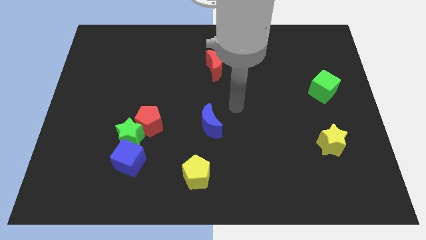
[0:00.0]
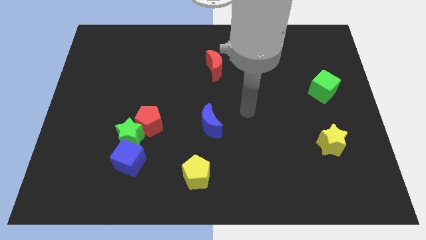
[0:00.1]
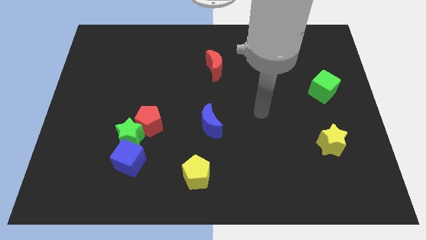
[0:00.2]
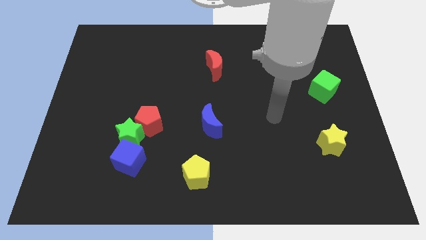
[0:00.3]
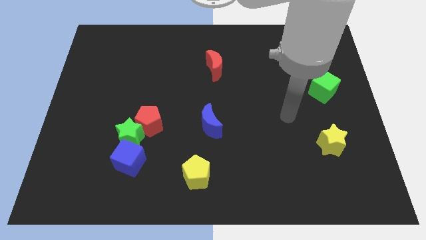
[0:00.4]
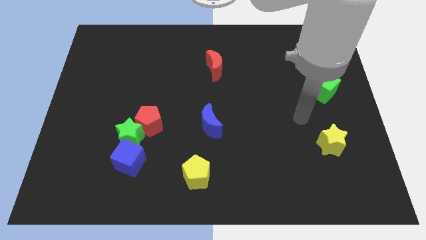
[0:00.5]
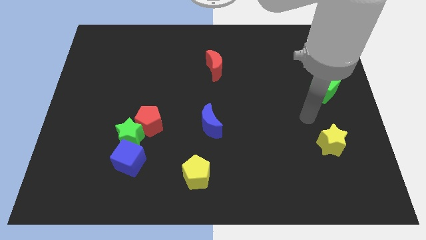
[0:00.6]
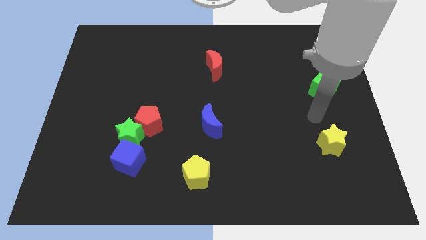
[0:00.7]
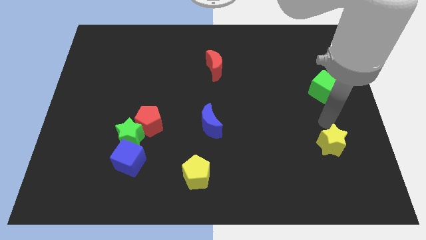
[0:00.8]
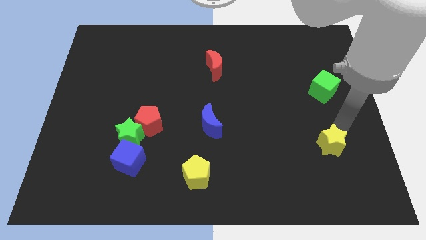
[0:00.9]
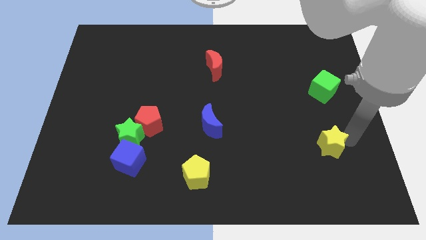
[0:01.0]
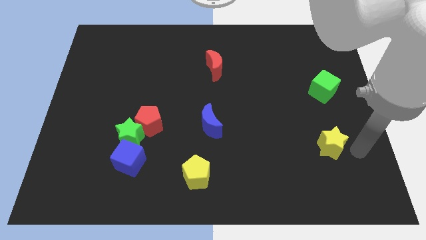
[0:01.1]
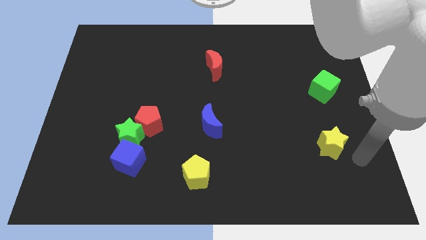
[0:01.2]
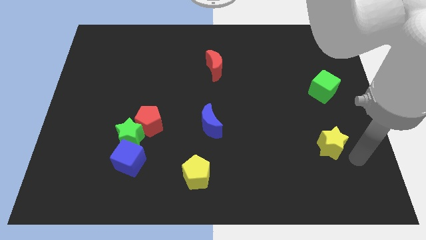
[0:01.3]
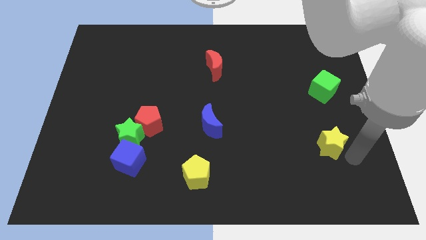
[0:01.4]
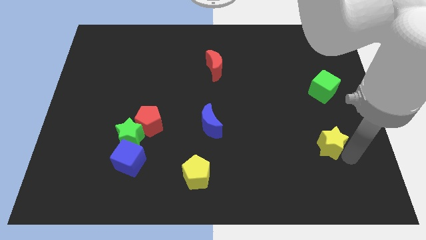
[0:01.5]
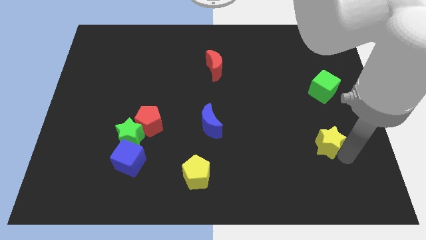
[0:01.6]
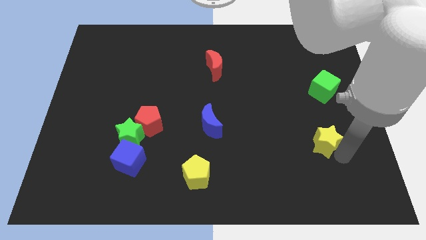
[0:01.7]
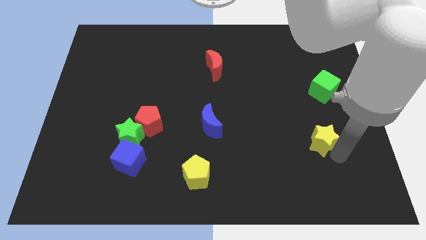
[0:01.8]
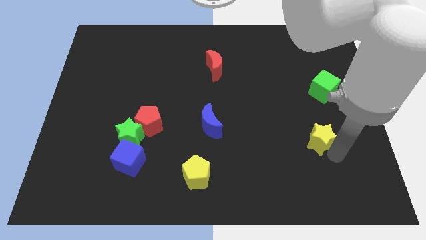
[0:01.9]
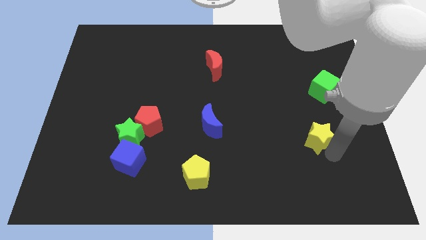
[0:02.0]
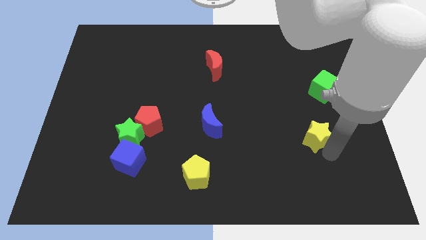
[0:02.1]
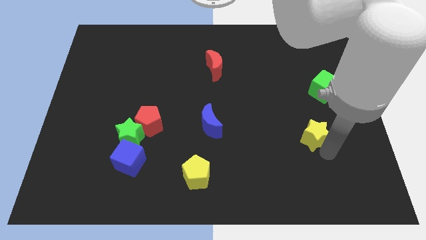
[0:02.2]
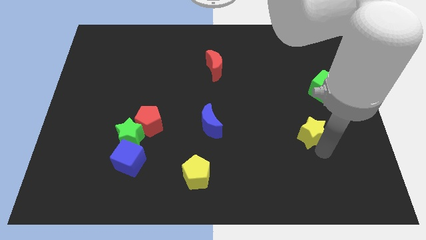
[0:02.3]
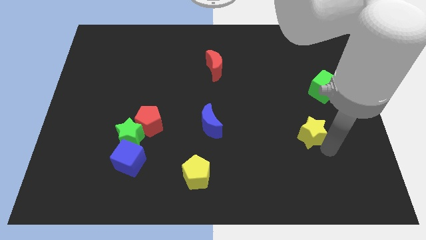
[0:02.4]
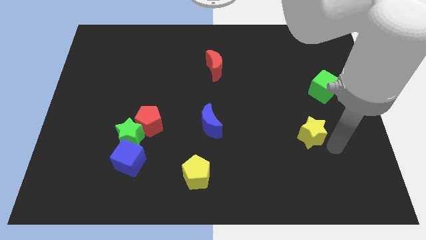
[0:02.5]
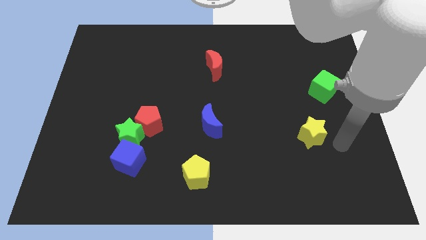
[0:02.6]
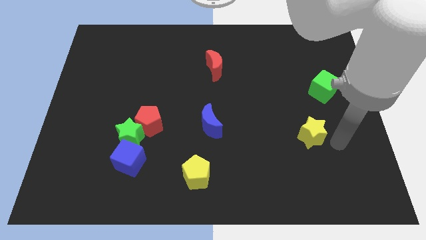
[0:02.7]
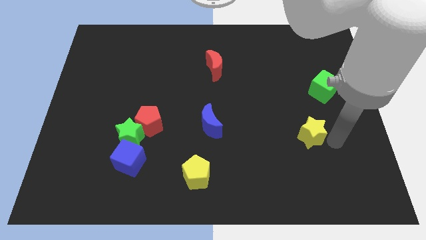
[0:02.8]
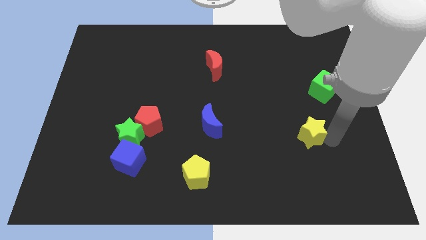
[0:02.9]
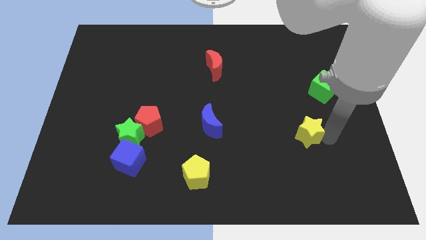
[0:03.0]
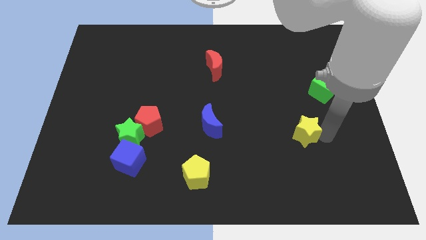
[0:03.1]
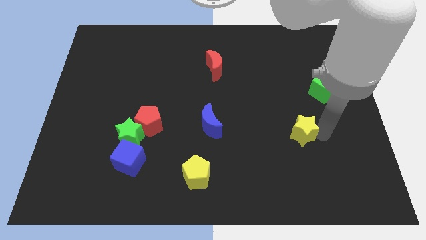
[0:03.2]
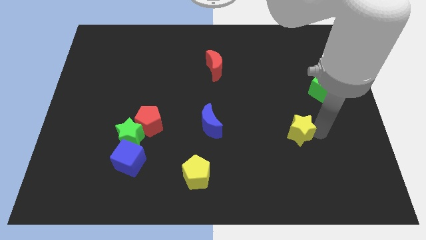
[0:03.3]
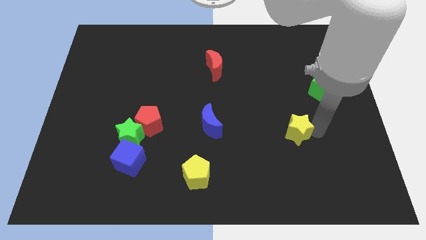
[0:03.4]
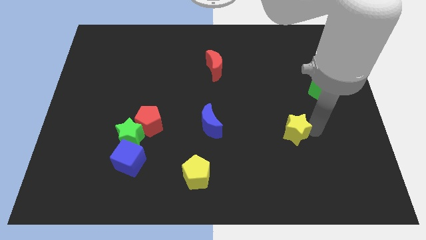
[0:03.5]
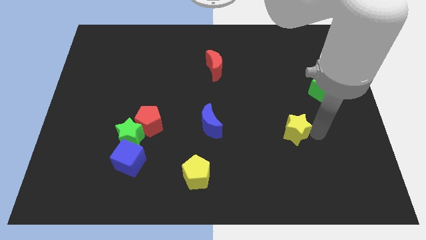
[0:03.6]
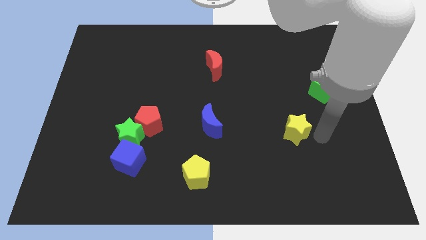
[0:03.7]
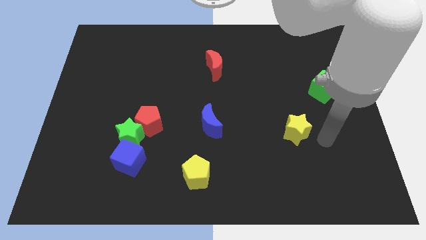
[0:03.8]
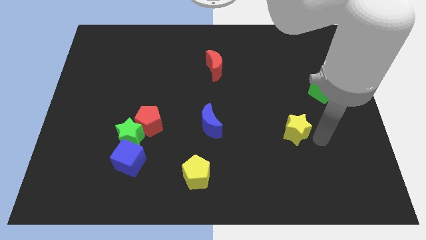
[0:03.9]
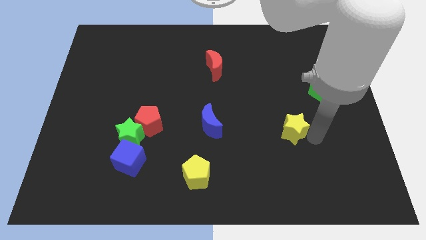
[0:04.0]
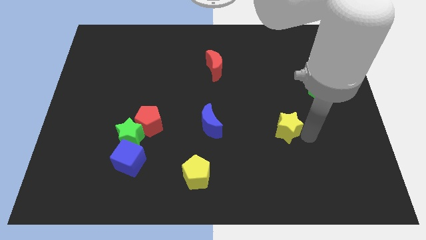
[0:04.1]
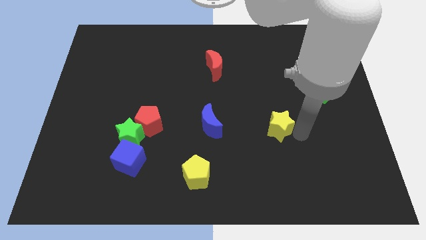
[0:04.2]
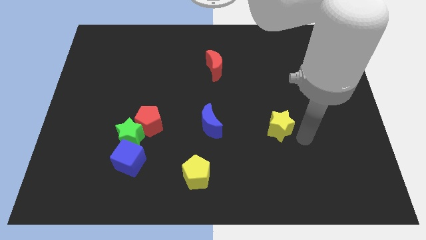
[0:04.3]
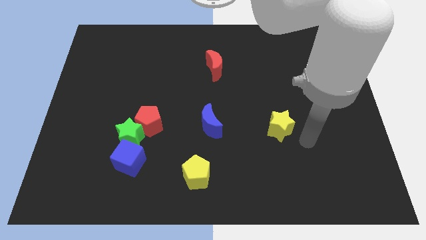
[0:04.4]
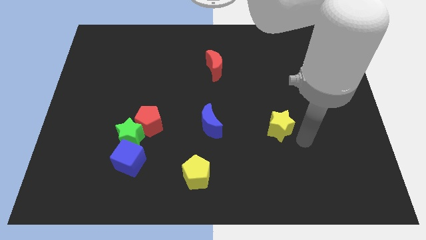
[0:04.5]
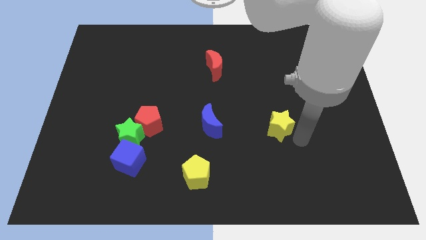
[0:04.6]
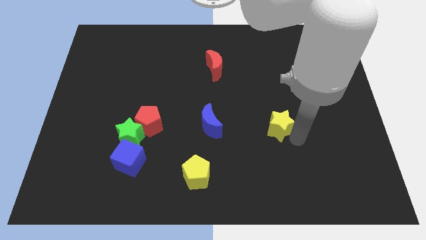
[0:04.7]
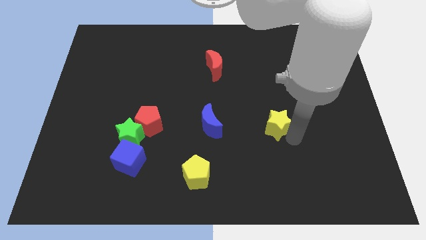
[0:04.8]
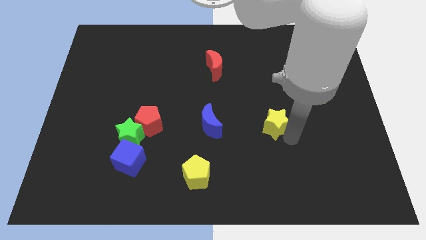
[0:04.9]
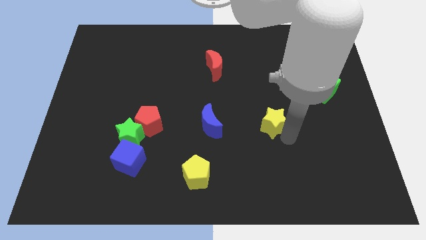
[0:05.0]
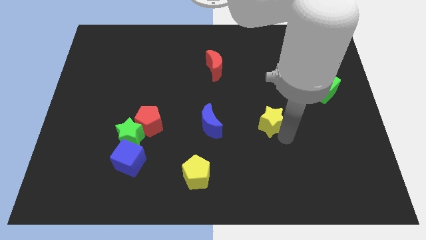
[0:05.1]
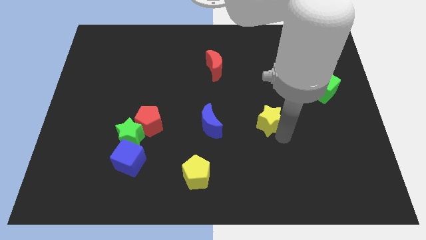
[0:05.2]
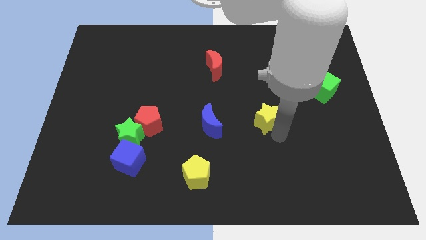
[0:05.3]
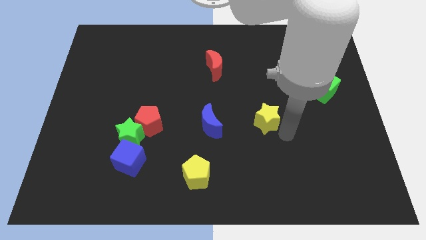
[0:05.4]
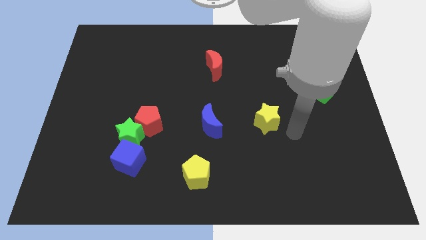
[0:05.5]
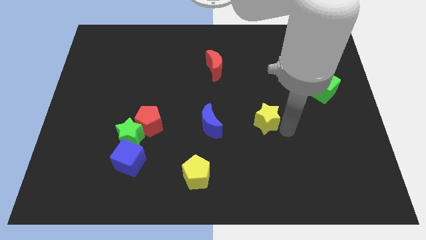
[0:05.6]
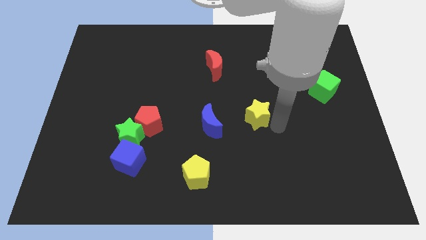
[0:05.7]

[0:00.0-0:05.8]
push the yellow star to the middle of the board

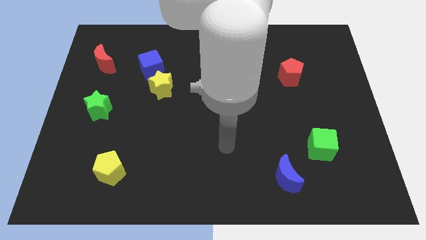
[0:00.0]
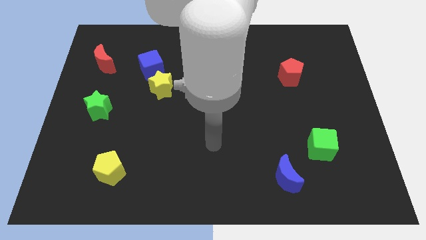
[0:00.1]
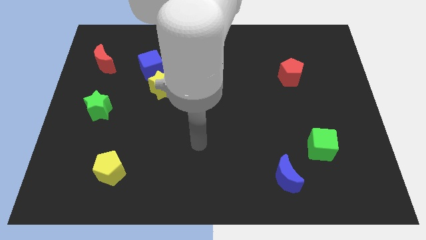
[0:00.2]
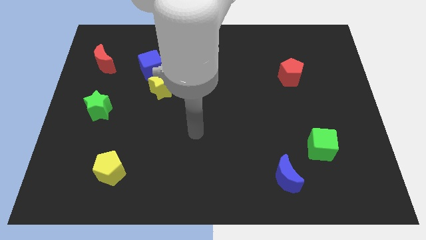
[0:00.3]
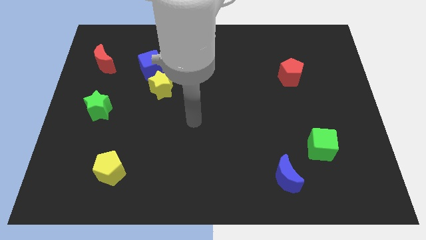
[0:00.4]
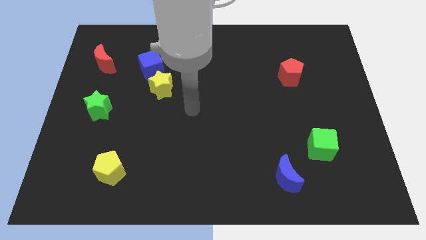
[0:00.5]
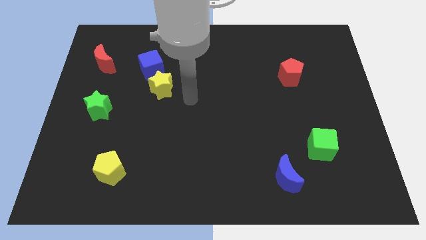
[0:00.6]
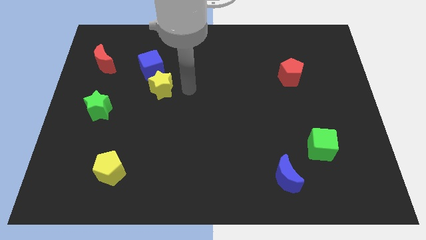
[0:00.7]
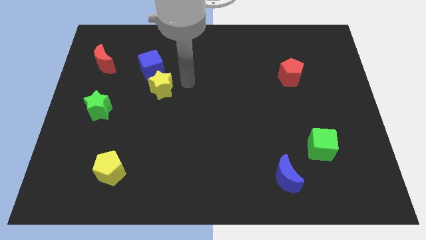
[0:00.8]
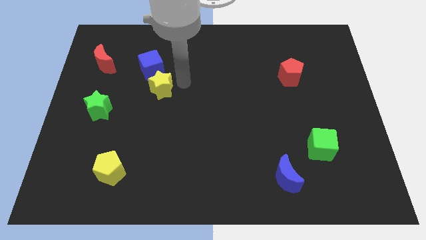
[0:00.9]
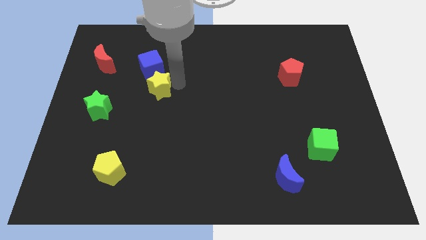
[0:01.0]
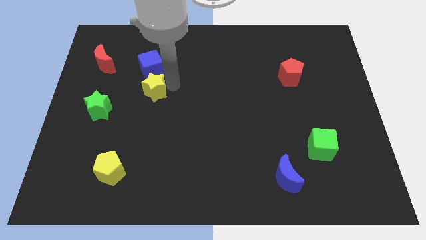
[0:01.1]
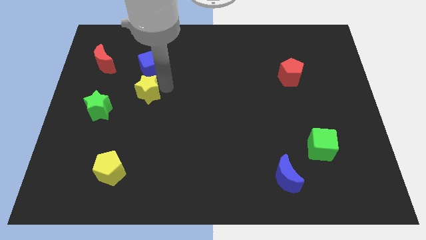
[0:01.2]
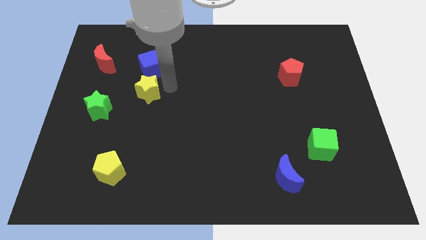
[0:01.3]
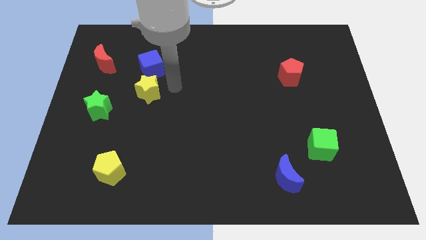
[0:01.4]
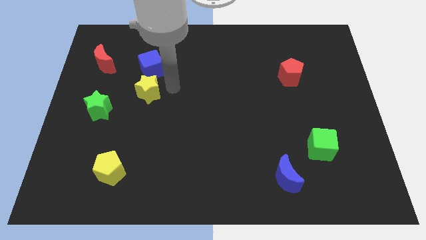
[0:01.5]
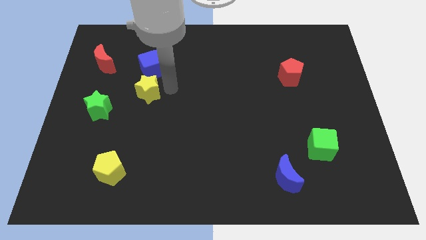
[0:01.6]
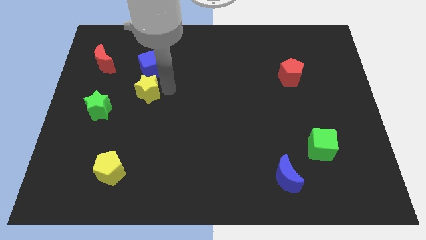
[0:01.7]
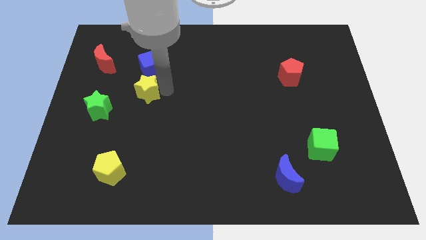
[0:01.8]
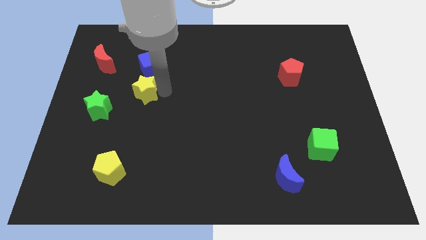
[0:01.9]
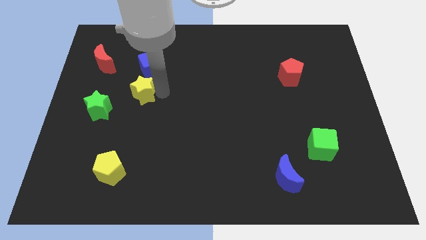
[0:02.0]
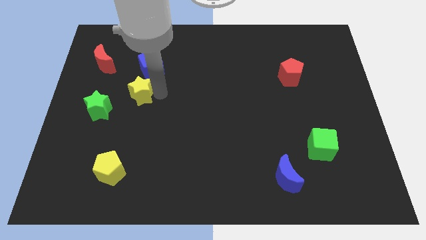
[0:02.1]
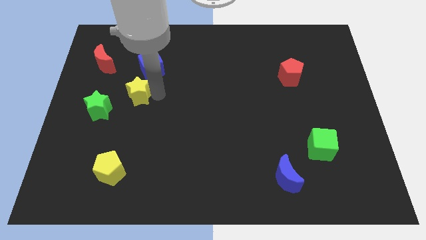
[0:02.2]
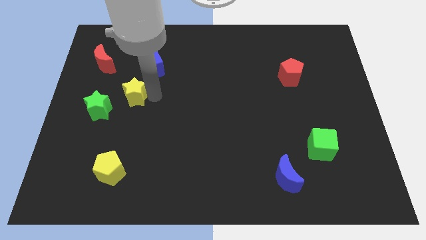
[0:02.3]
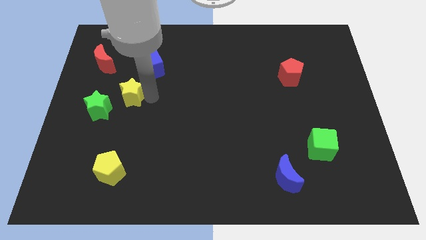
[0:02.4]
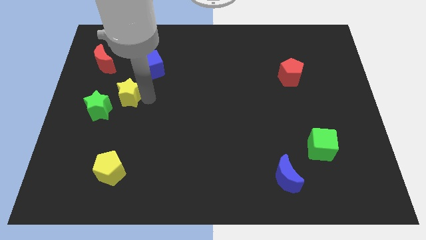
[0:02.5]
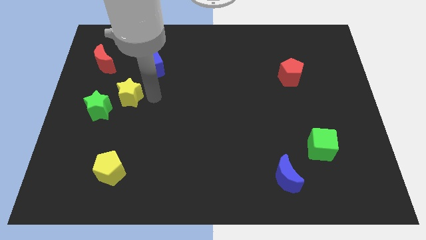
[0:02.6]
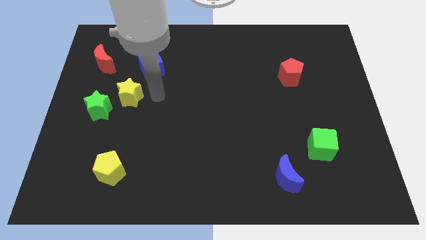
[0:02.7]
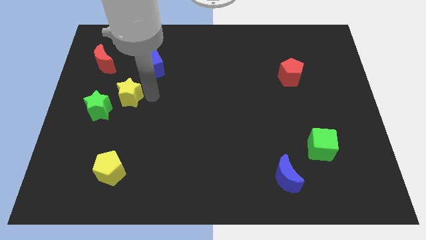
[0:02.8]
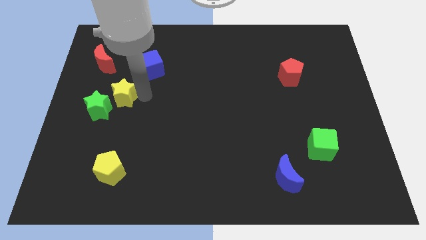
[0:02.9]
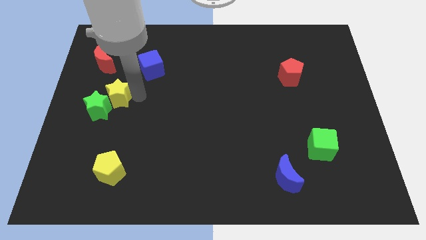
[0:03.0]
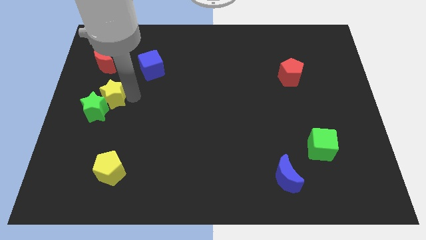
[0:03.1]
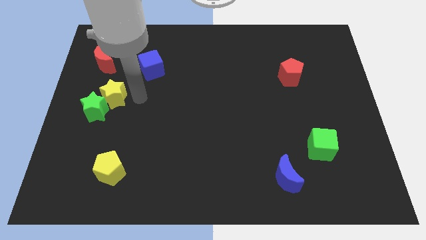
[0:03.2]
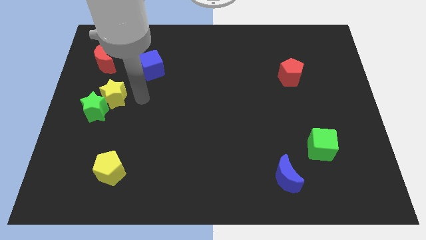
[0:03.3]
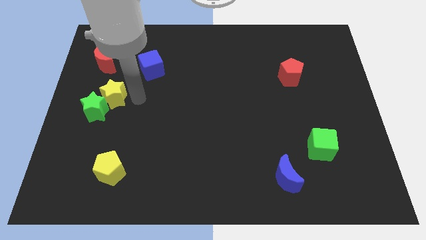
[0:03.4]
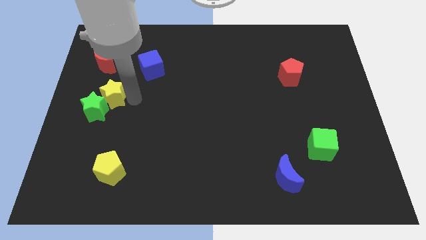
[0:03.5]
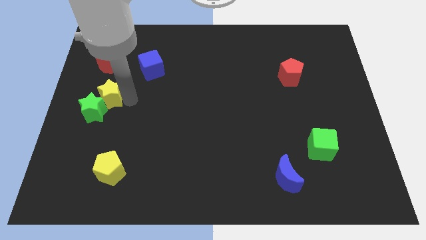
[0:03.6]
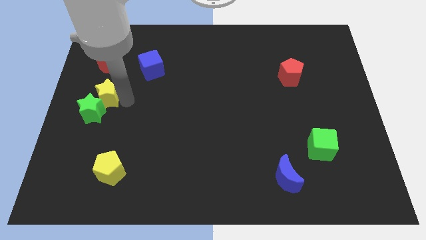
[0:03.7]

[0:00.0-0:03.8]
move the yellow star to the left side
